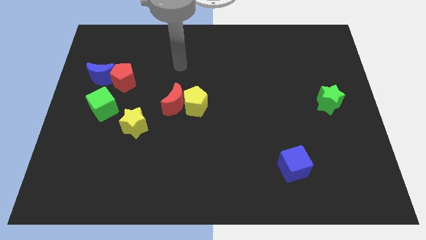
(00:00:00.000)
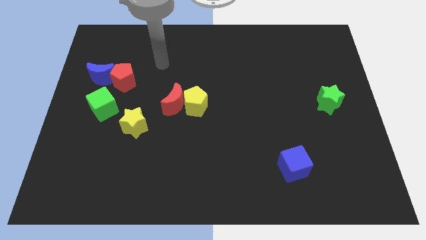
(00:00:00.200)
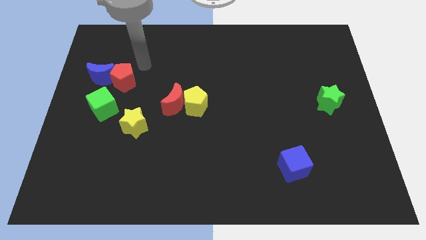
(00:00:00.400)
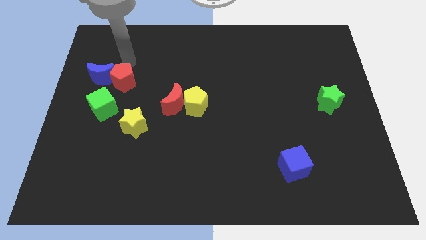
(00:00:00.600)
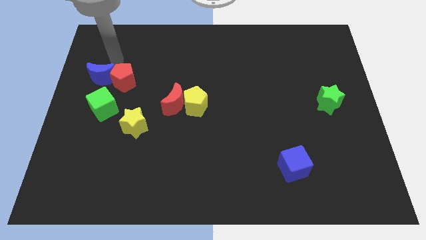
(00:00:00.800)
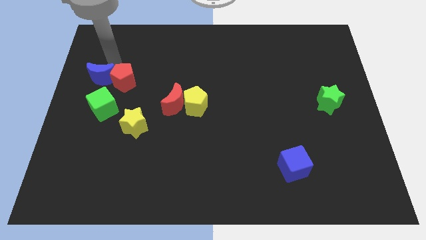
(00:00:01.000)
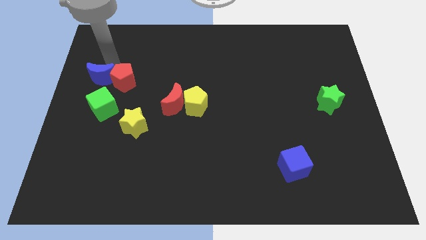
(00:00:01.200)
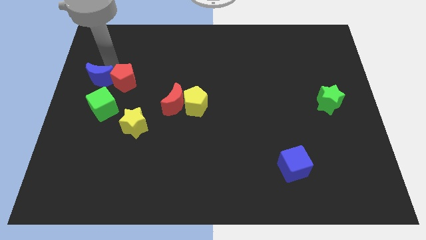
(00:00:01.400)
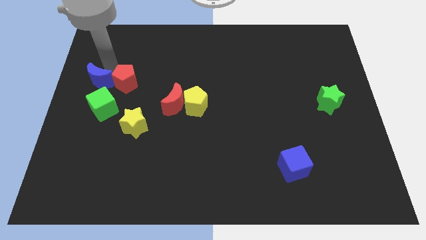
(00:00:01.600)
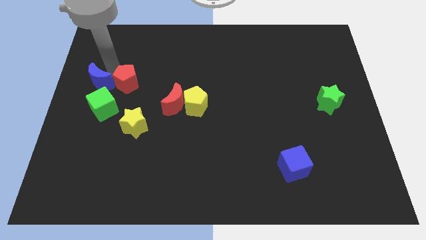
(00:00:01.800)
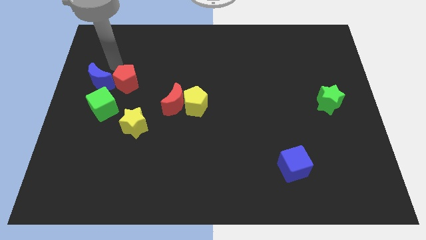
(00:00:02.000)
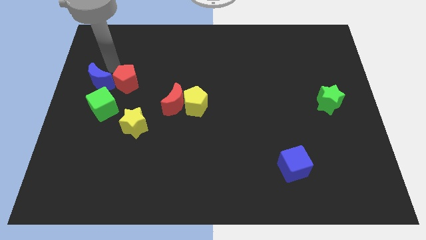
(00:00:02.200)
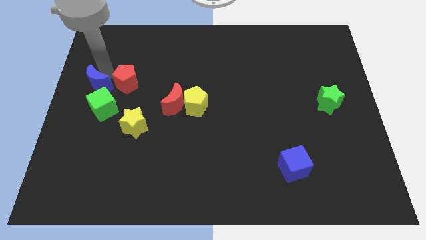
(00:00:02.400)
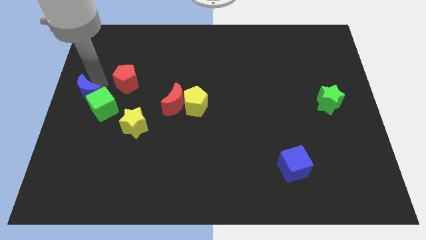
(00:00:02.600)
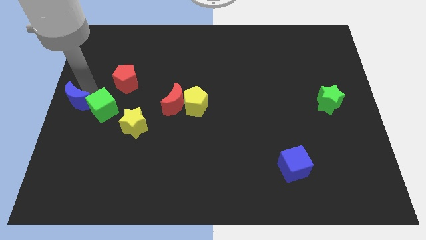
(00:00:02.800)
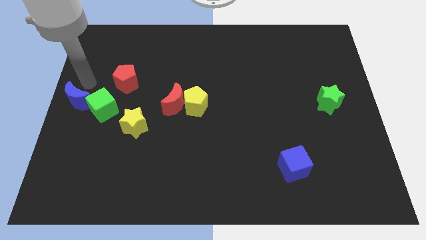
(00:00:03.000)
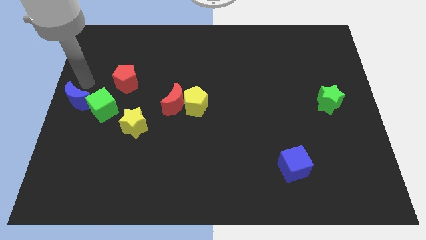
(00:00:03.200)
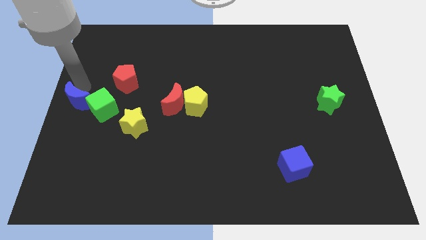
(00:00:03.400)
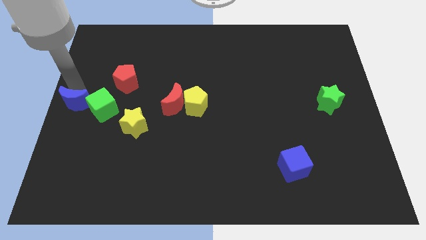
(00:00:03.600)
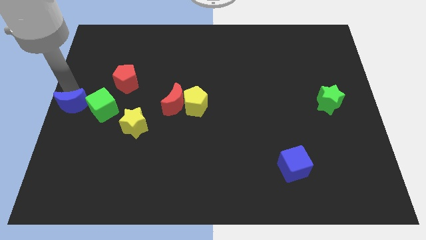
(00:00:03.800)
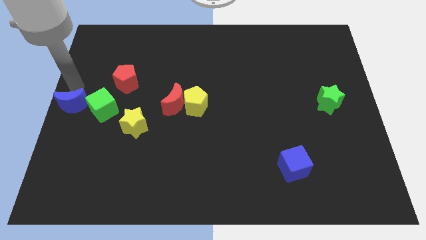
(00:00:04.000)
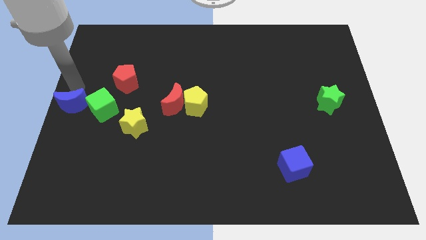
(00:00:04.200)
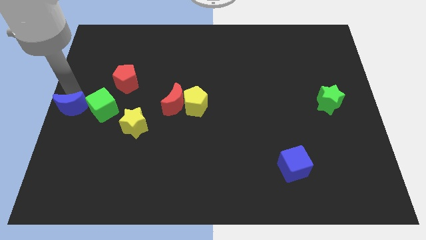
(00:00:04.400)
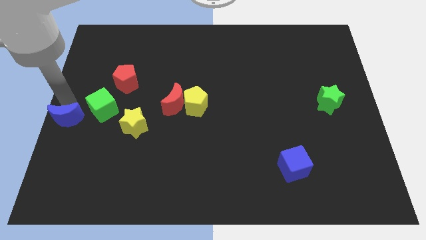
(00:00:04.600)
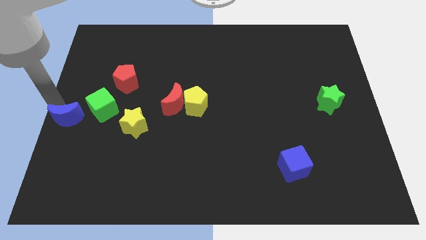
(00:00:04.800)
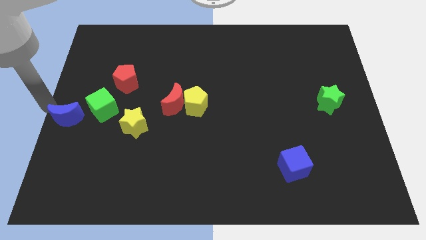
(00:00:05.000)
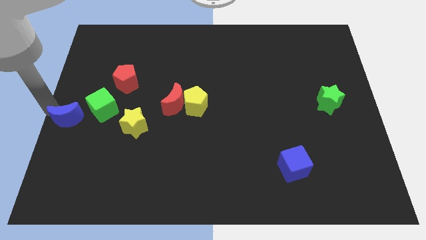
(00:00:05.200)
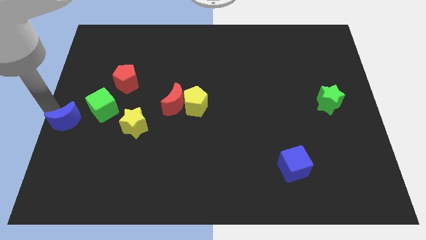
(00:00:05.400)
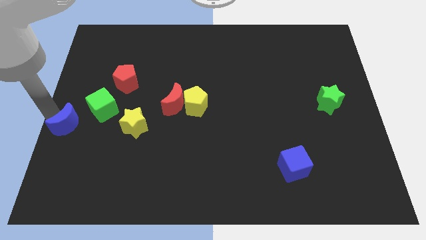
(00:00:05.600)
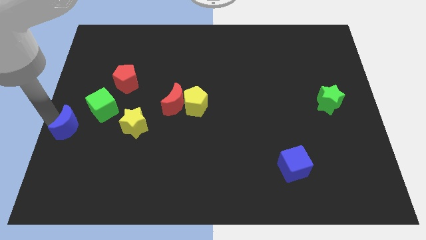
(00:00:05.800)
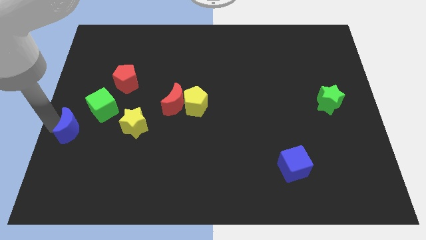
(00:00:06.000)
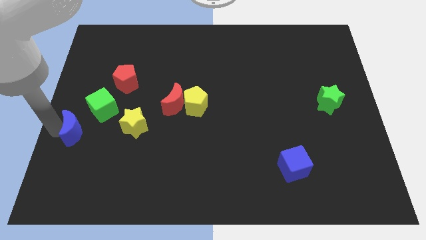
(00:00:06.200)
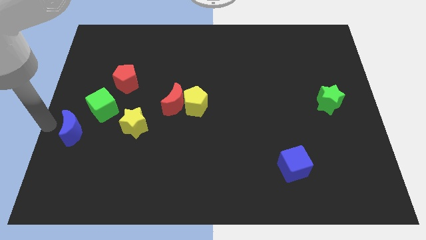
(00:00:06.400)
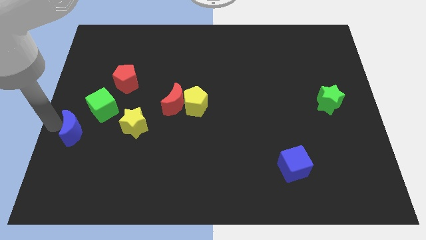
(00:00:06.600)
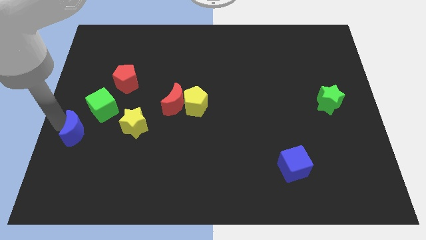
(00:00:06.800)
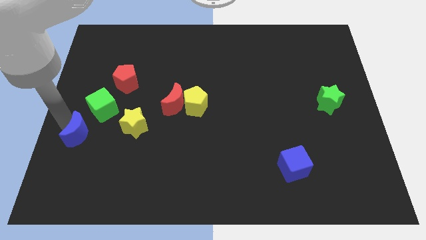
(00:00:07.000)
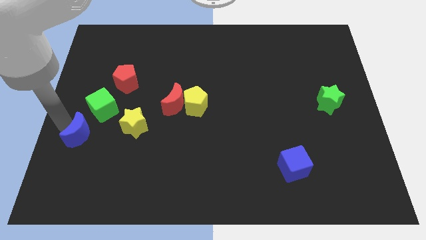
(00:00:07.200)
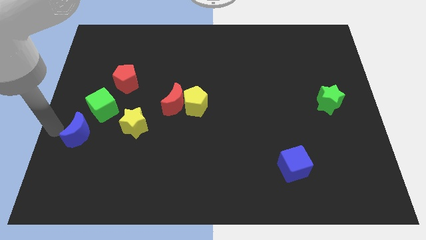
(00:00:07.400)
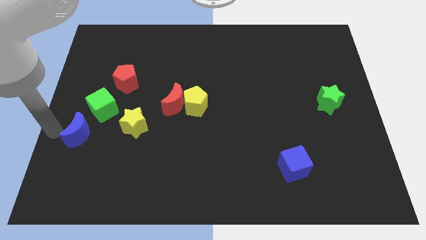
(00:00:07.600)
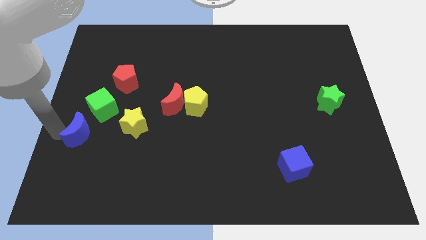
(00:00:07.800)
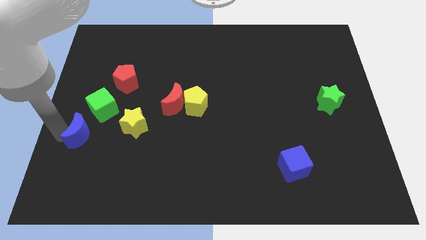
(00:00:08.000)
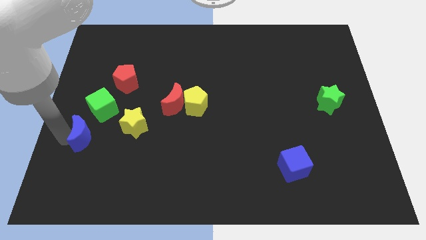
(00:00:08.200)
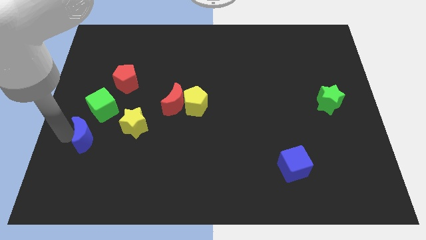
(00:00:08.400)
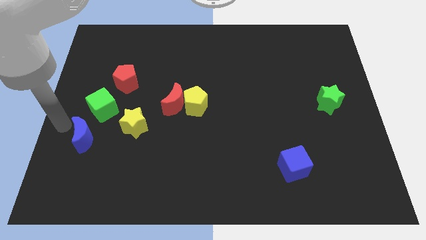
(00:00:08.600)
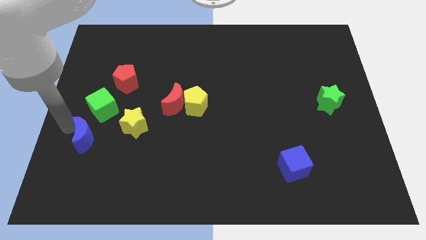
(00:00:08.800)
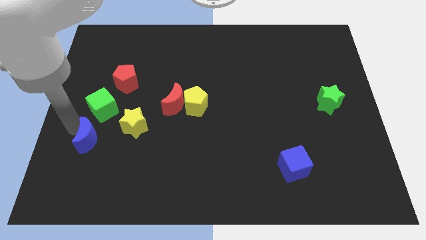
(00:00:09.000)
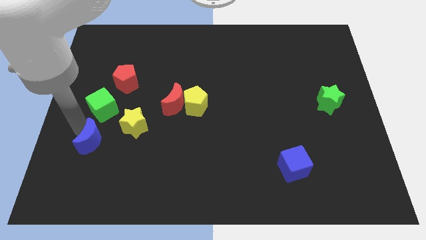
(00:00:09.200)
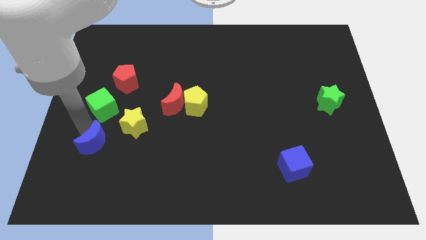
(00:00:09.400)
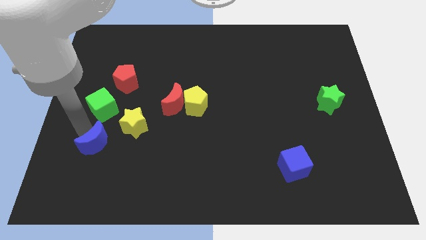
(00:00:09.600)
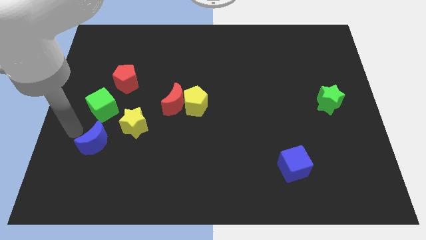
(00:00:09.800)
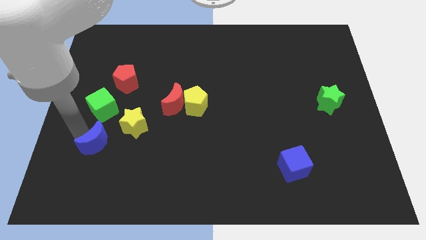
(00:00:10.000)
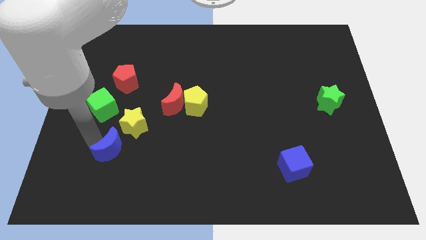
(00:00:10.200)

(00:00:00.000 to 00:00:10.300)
move the blue moon to the bottom side of the yellow star

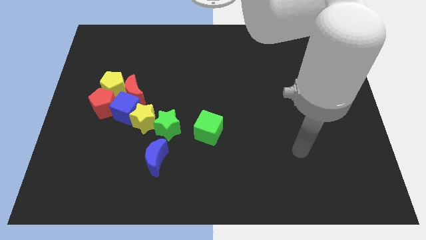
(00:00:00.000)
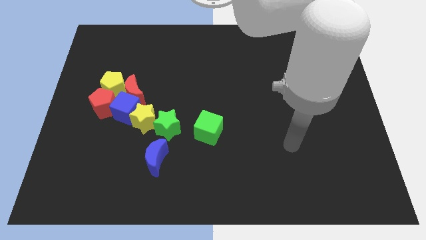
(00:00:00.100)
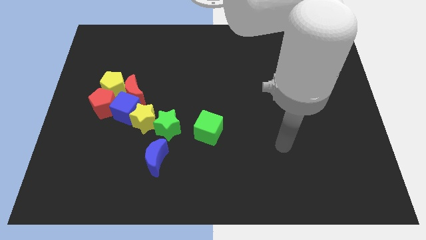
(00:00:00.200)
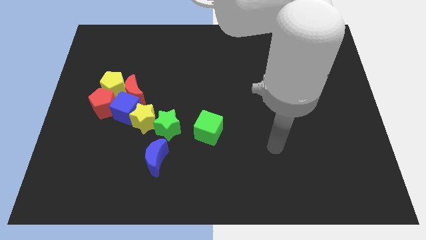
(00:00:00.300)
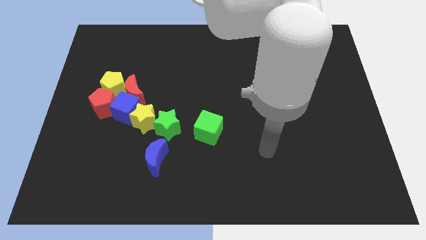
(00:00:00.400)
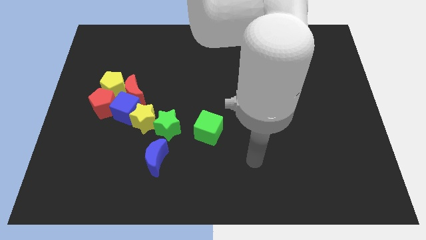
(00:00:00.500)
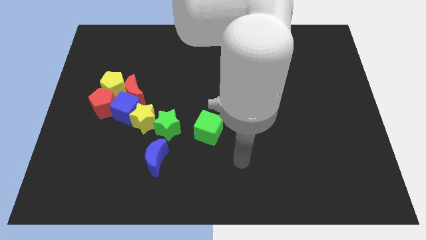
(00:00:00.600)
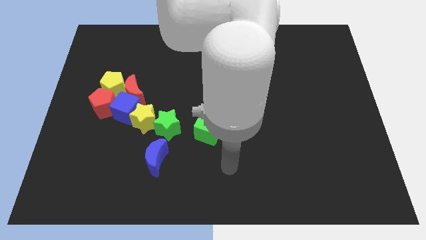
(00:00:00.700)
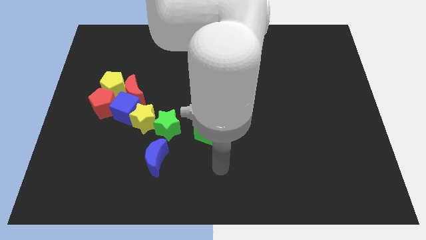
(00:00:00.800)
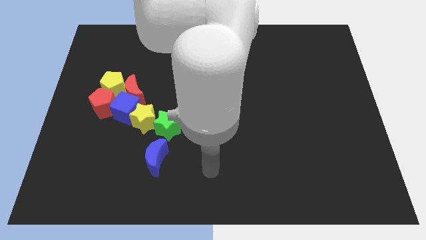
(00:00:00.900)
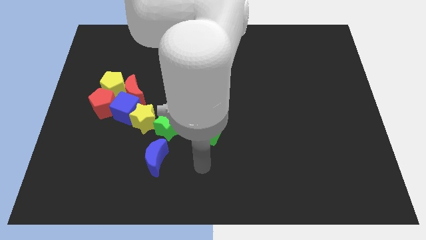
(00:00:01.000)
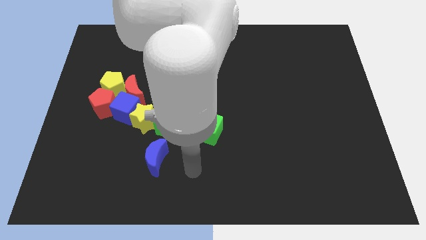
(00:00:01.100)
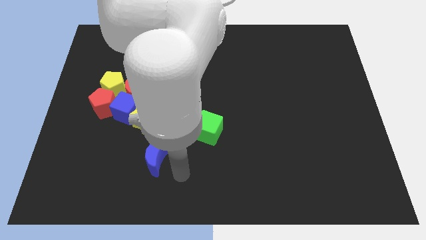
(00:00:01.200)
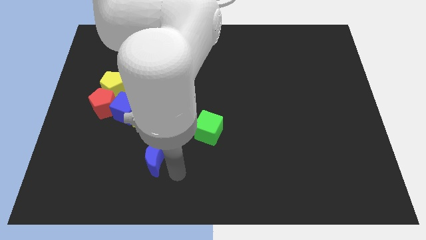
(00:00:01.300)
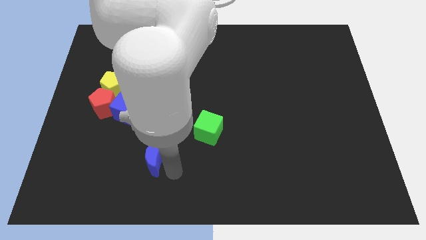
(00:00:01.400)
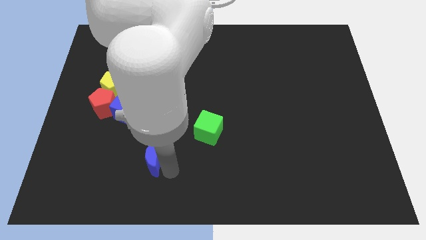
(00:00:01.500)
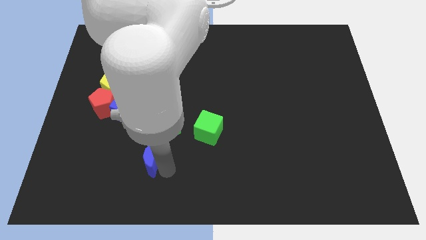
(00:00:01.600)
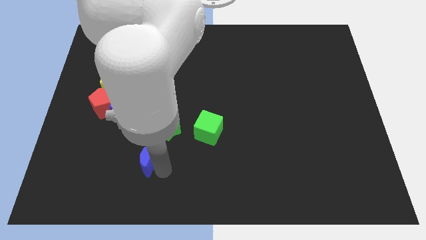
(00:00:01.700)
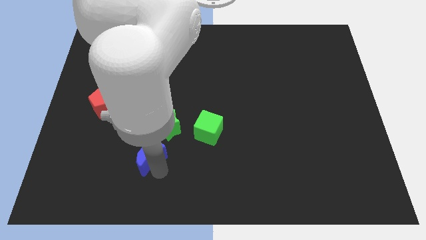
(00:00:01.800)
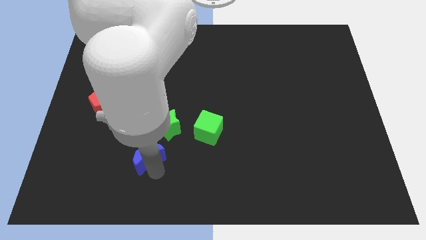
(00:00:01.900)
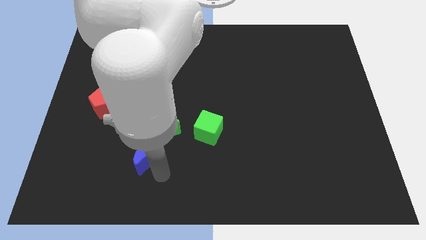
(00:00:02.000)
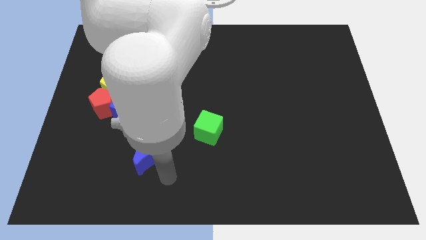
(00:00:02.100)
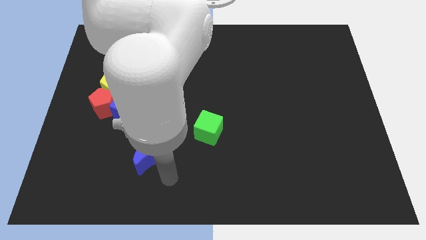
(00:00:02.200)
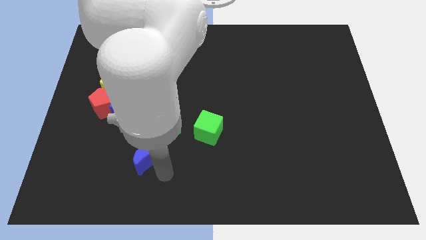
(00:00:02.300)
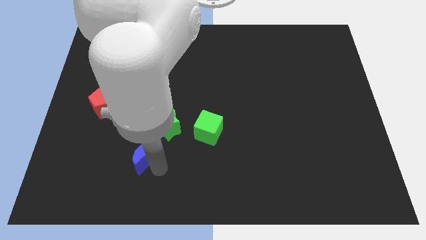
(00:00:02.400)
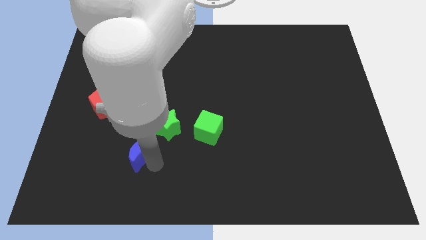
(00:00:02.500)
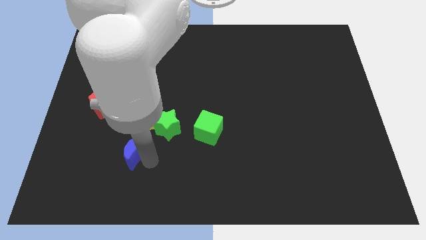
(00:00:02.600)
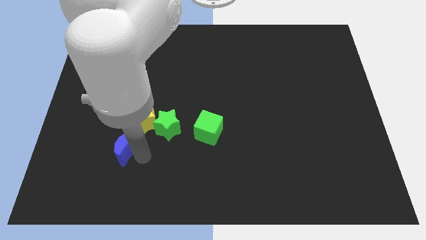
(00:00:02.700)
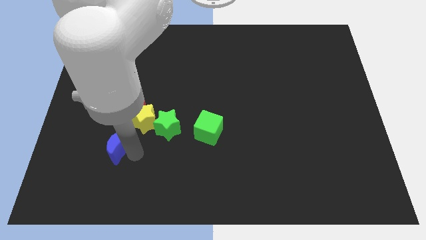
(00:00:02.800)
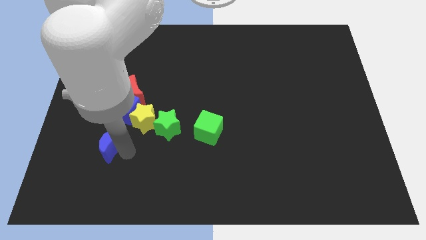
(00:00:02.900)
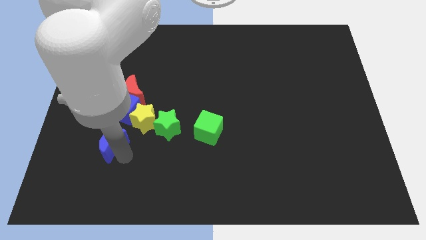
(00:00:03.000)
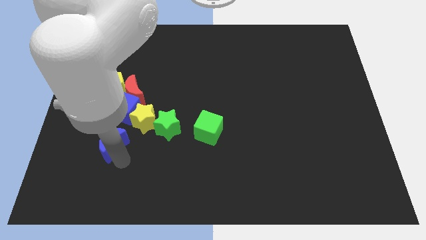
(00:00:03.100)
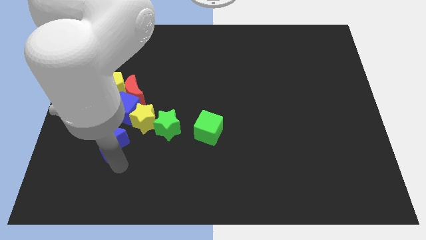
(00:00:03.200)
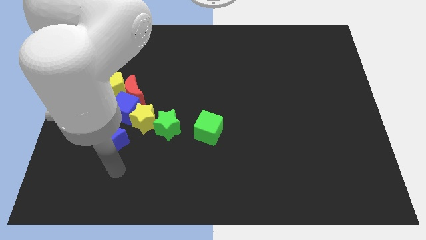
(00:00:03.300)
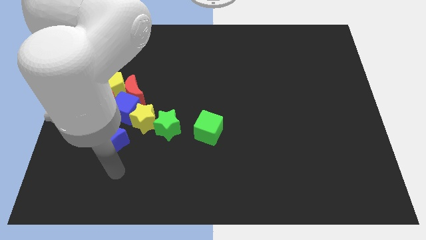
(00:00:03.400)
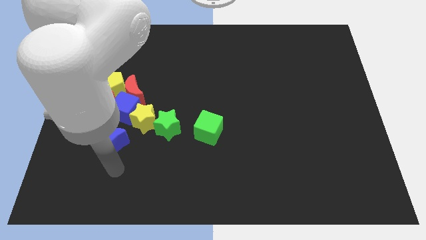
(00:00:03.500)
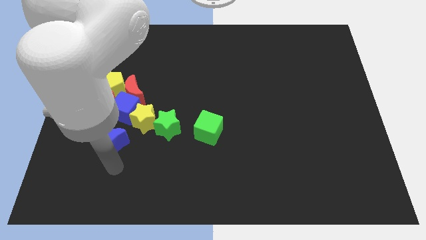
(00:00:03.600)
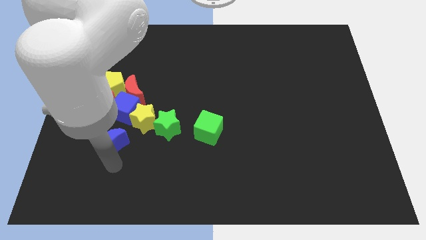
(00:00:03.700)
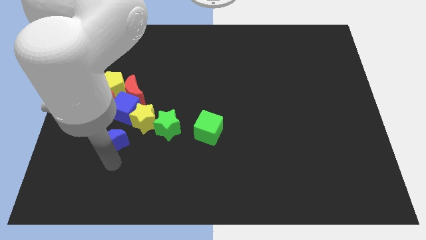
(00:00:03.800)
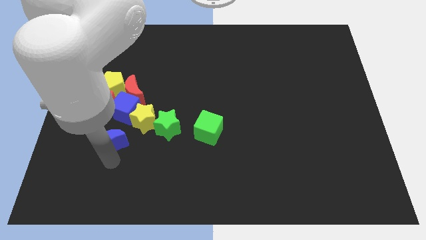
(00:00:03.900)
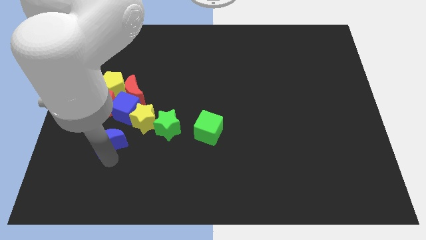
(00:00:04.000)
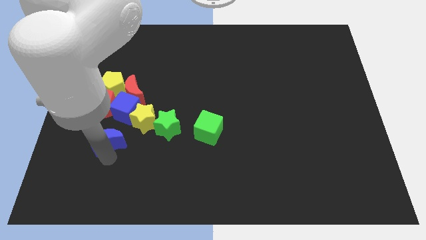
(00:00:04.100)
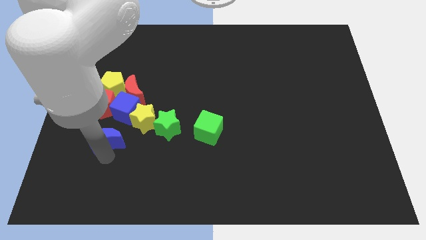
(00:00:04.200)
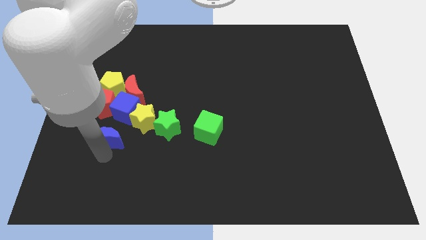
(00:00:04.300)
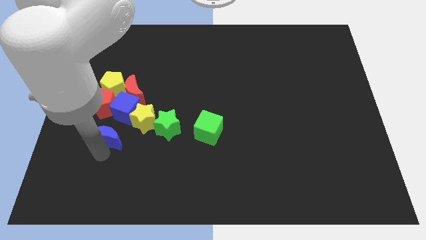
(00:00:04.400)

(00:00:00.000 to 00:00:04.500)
push the blue moon left of the yellow star
